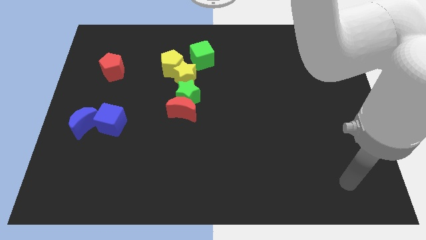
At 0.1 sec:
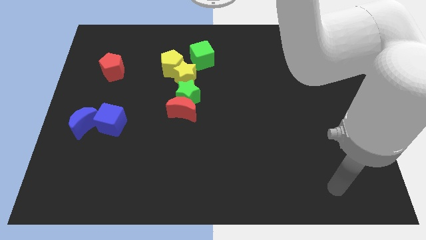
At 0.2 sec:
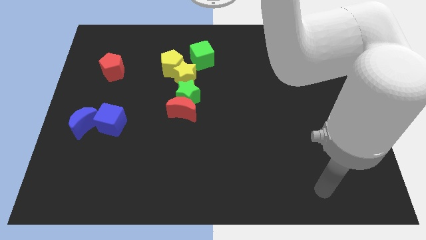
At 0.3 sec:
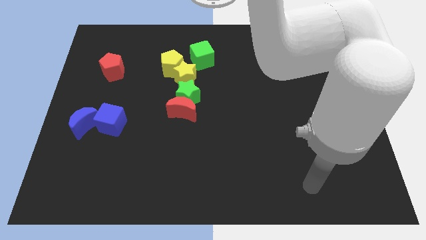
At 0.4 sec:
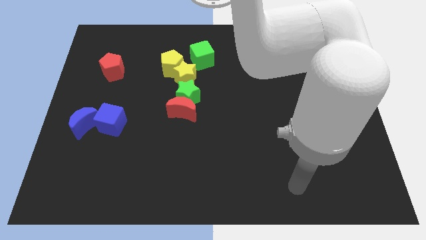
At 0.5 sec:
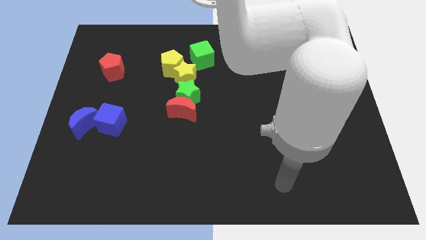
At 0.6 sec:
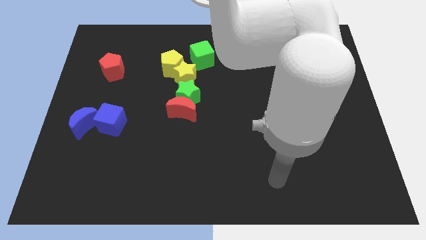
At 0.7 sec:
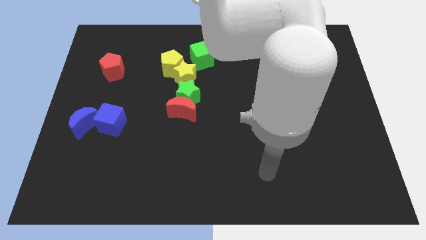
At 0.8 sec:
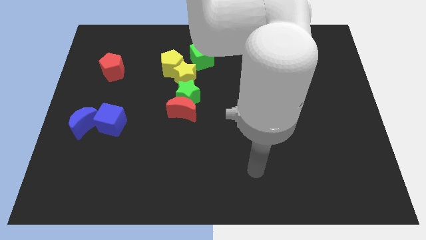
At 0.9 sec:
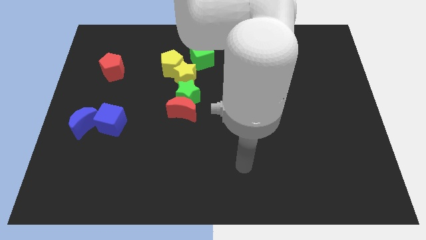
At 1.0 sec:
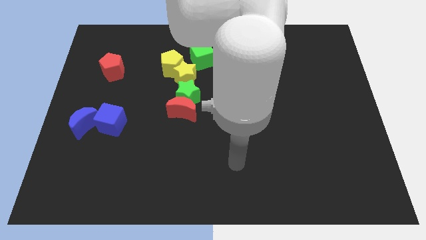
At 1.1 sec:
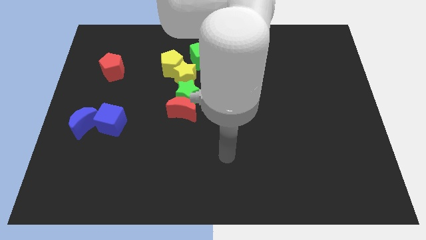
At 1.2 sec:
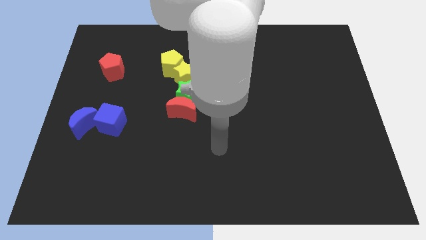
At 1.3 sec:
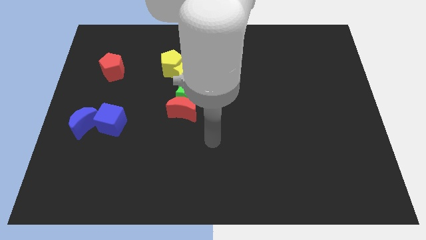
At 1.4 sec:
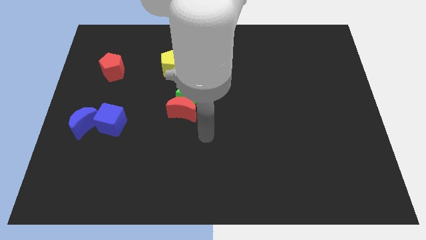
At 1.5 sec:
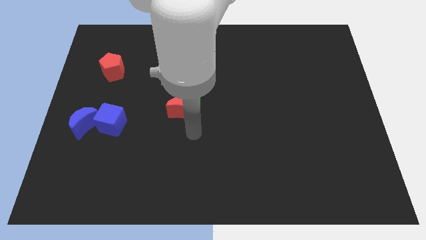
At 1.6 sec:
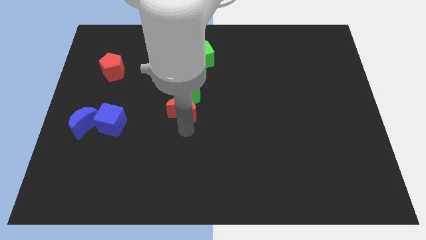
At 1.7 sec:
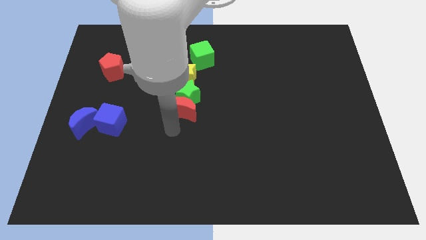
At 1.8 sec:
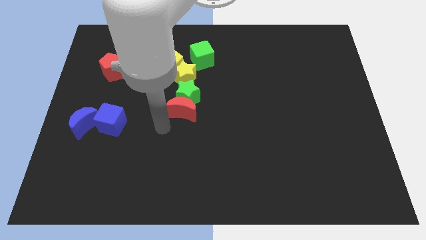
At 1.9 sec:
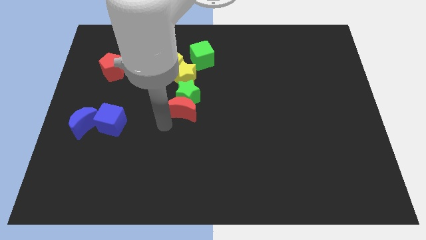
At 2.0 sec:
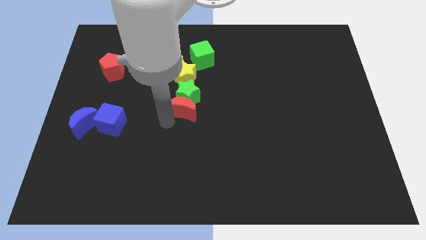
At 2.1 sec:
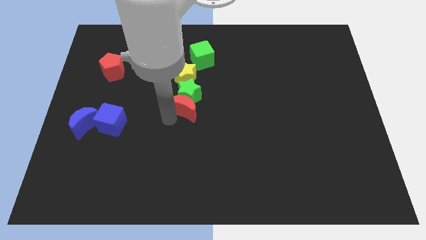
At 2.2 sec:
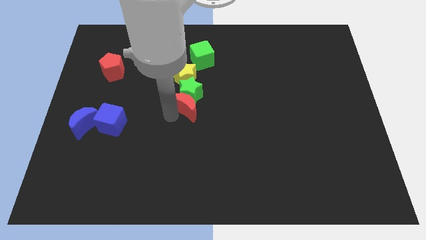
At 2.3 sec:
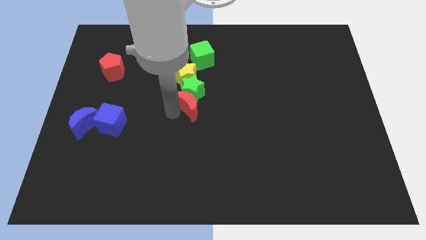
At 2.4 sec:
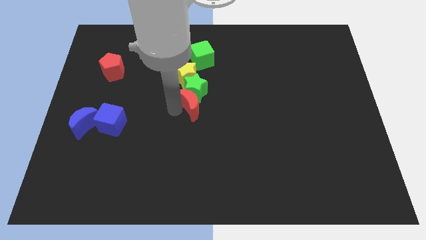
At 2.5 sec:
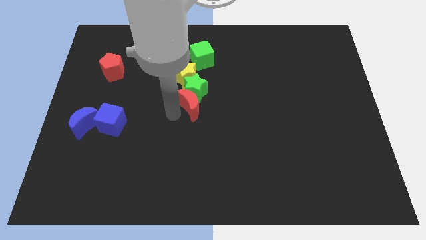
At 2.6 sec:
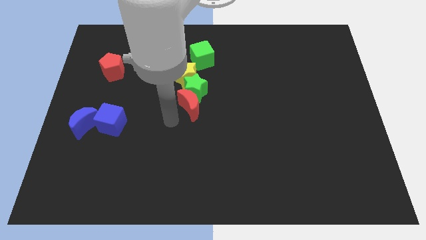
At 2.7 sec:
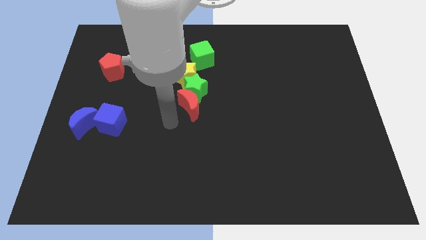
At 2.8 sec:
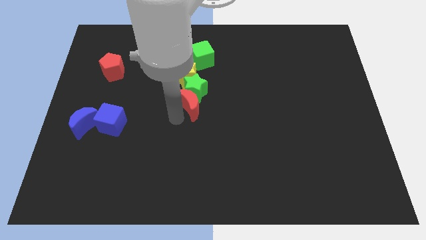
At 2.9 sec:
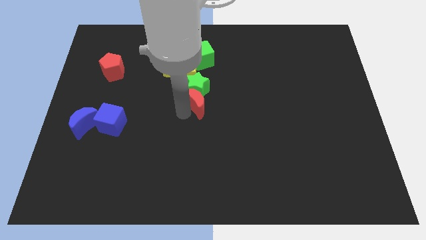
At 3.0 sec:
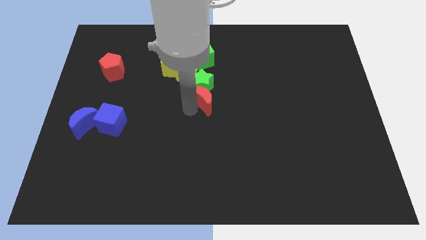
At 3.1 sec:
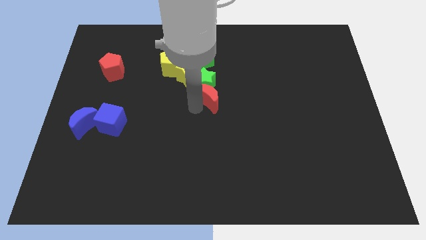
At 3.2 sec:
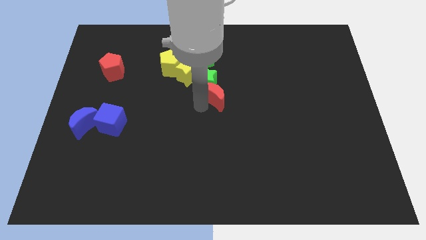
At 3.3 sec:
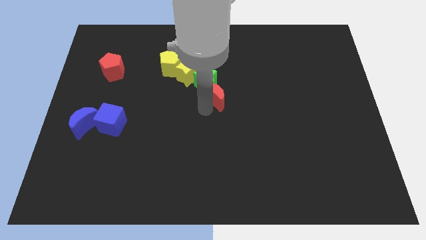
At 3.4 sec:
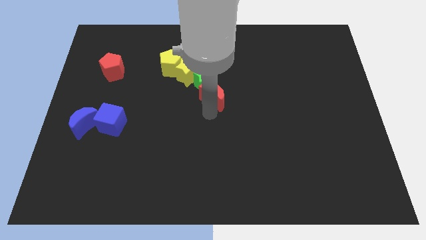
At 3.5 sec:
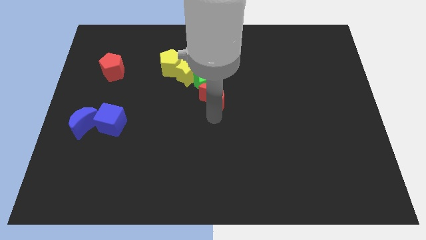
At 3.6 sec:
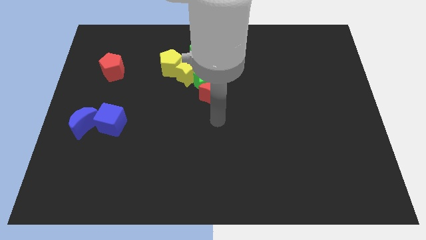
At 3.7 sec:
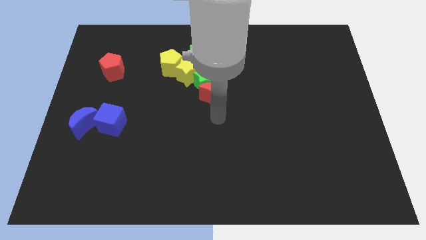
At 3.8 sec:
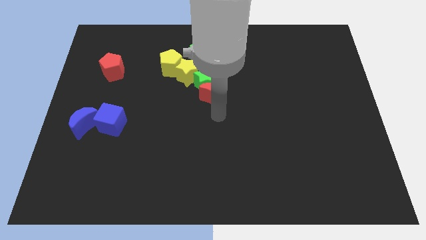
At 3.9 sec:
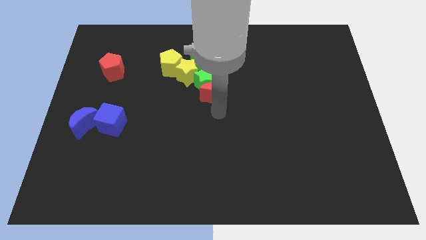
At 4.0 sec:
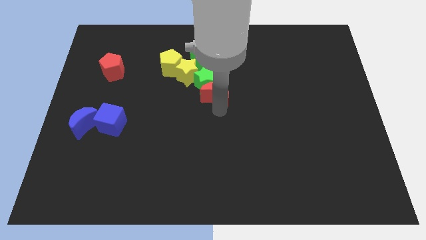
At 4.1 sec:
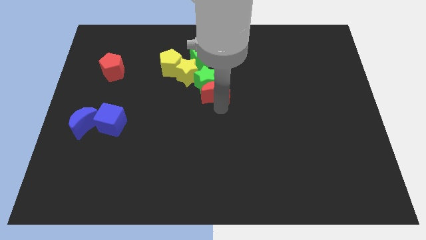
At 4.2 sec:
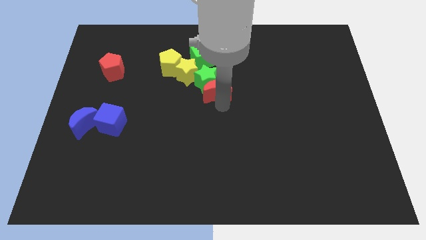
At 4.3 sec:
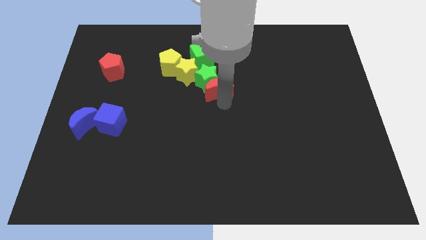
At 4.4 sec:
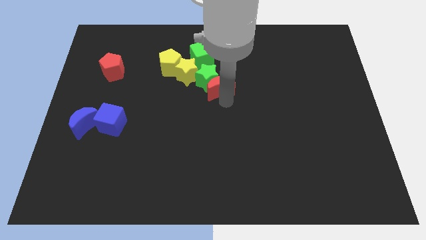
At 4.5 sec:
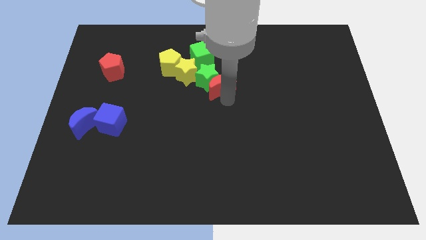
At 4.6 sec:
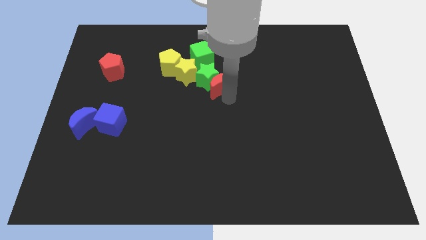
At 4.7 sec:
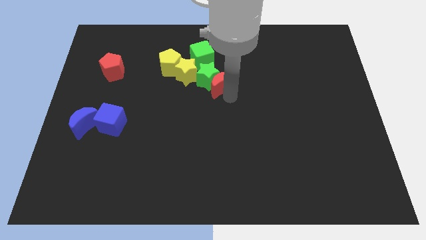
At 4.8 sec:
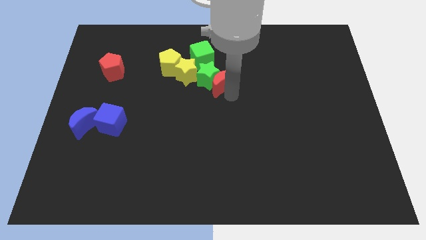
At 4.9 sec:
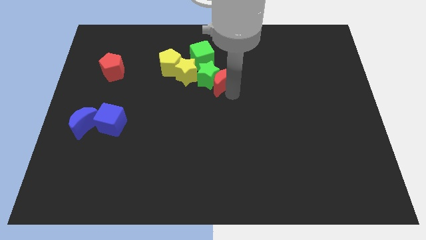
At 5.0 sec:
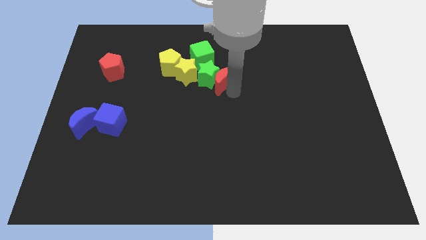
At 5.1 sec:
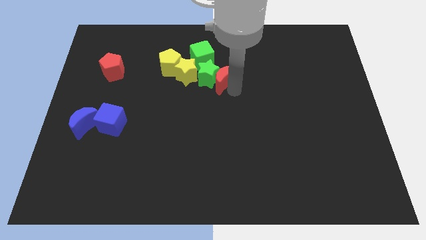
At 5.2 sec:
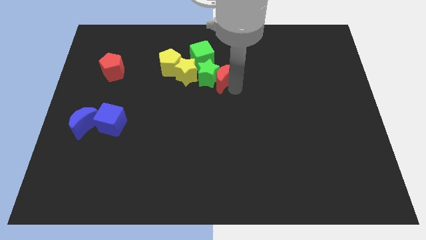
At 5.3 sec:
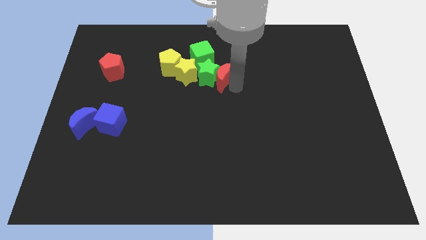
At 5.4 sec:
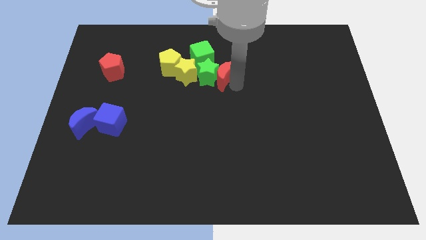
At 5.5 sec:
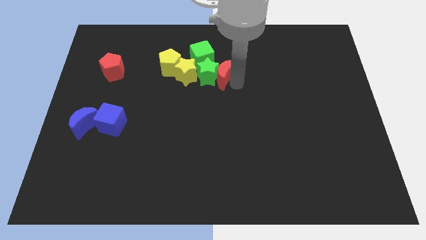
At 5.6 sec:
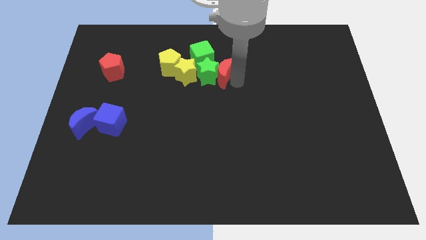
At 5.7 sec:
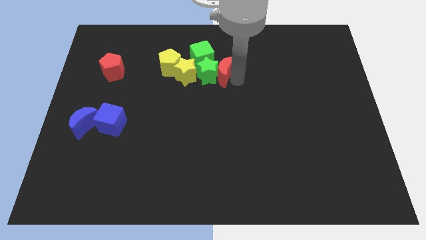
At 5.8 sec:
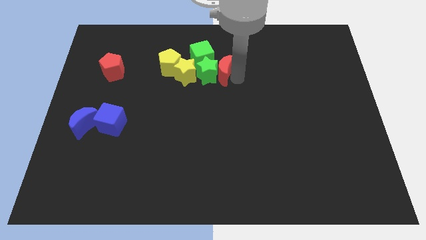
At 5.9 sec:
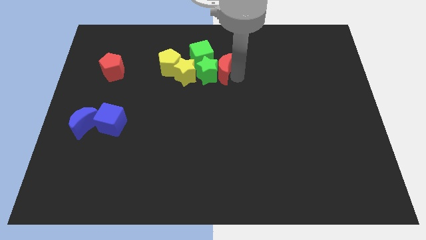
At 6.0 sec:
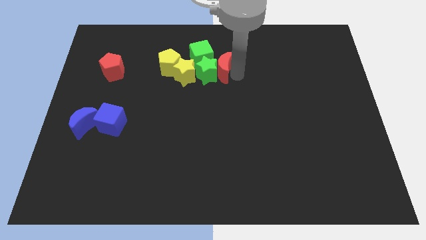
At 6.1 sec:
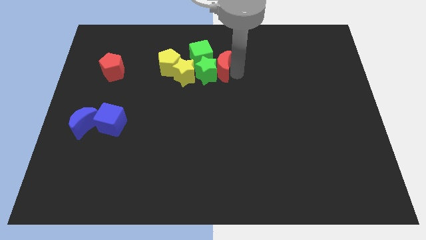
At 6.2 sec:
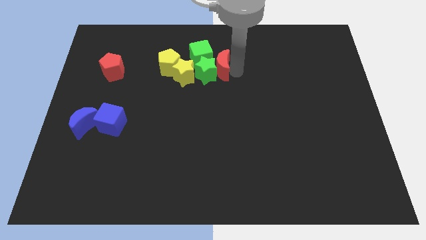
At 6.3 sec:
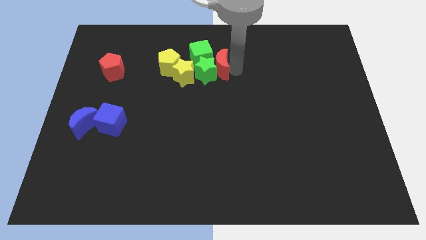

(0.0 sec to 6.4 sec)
slide the red moon to the green cube
